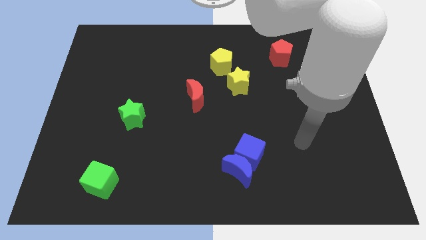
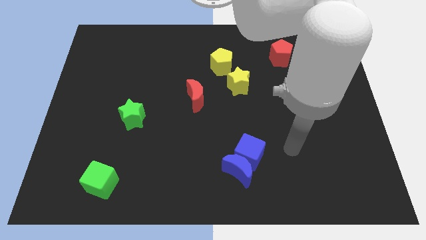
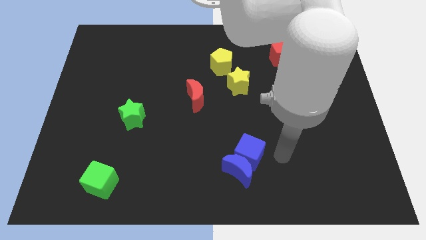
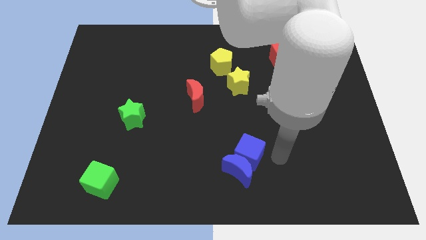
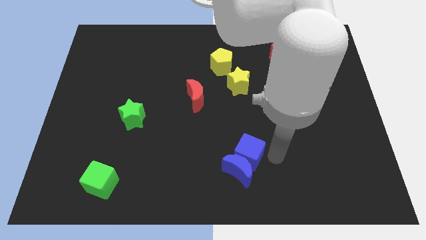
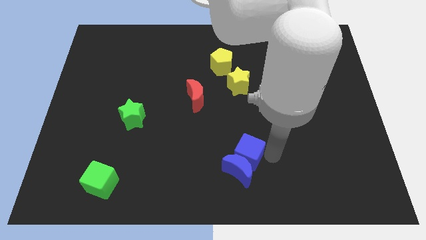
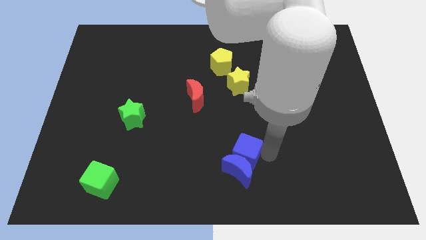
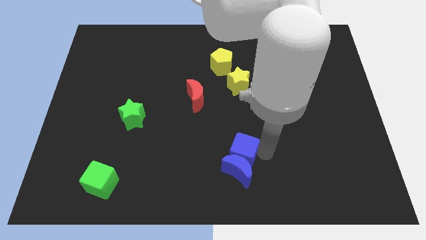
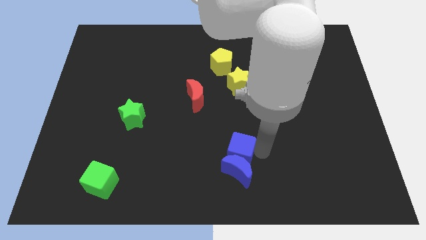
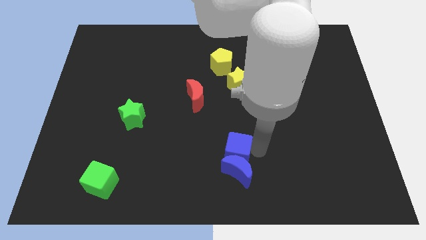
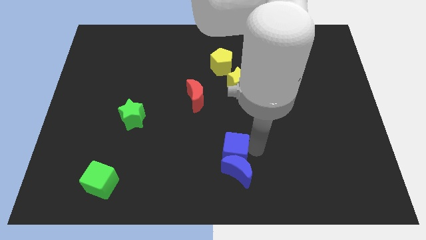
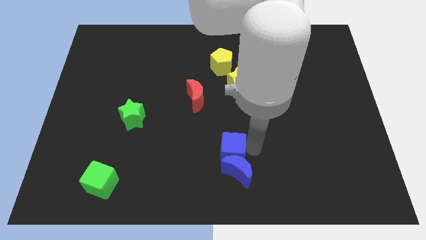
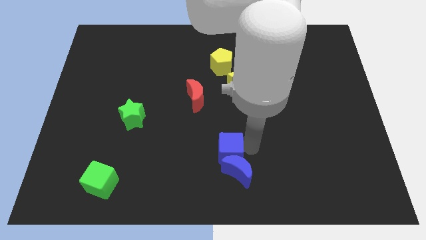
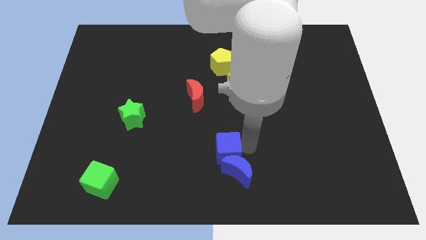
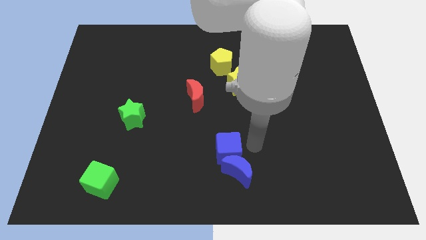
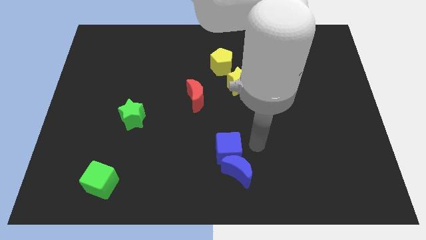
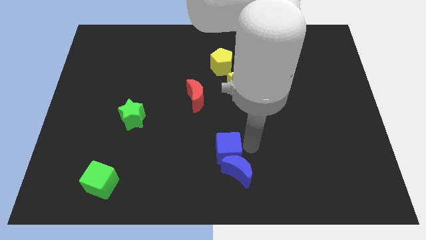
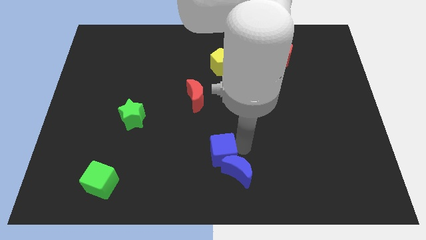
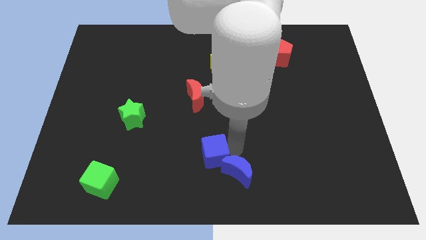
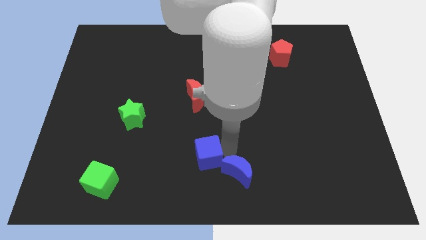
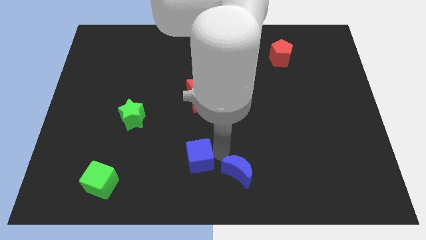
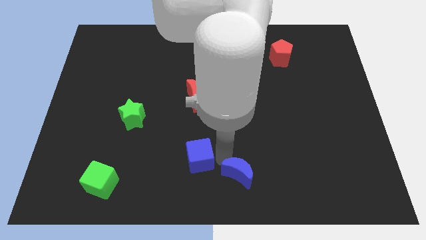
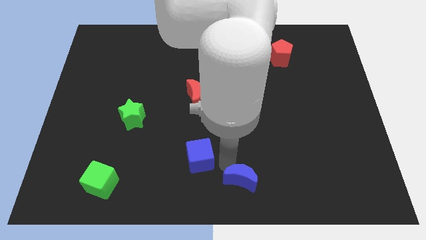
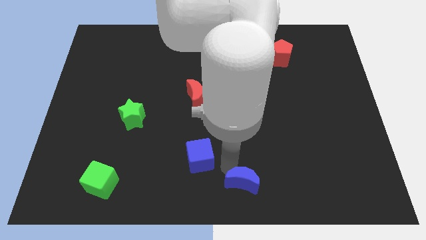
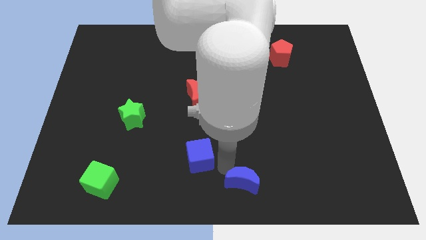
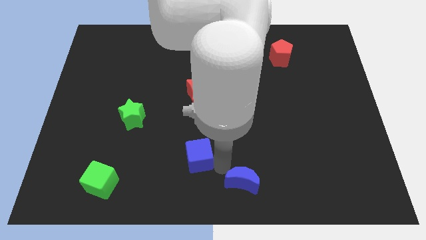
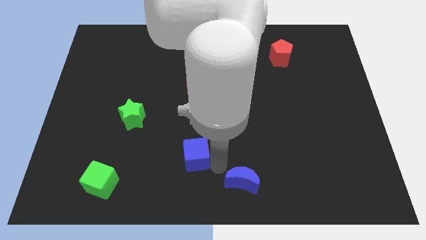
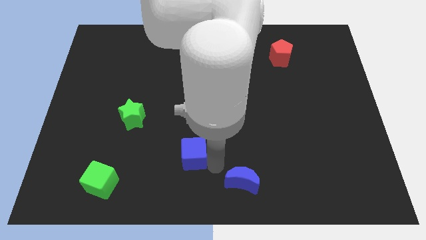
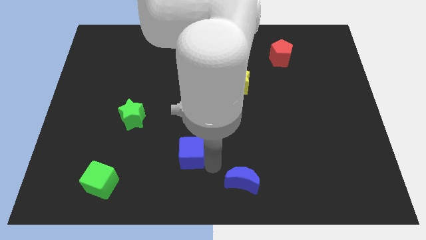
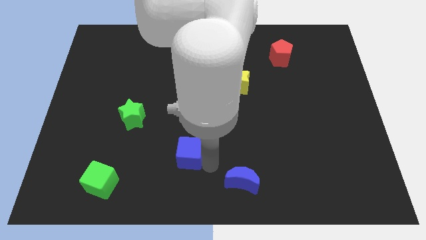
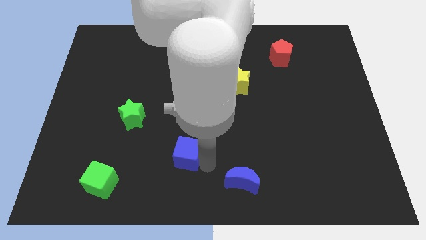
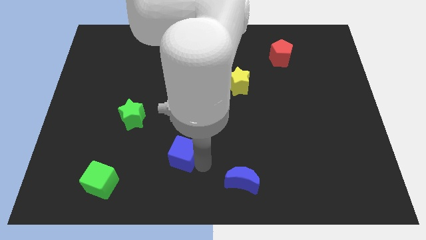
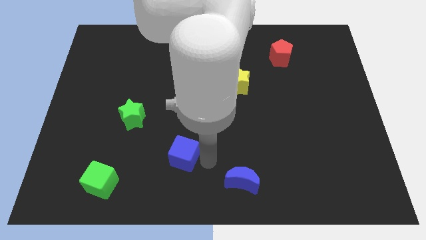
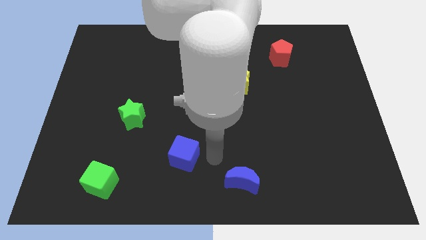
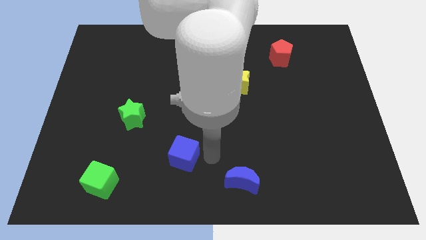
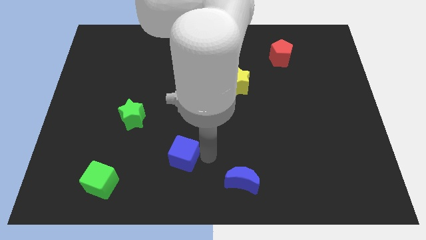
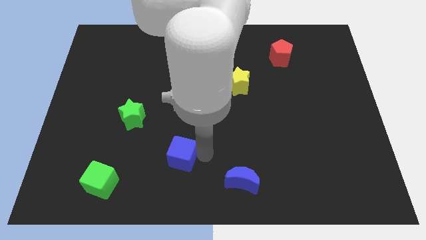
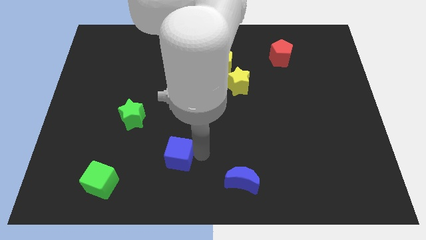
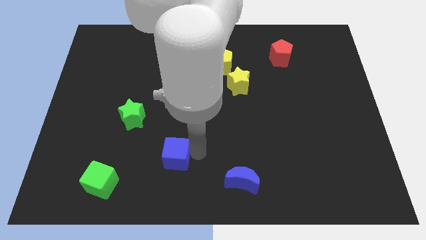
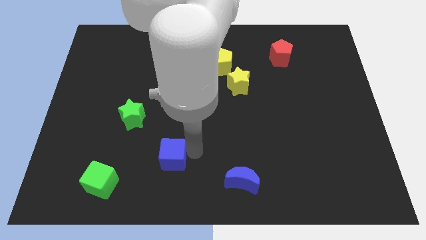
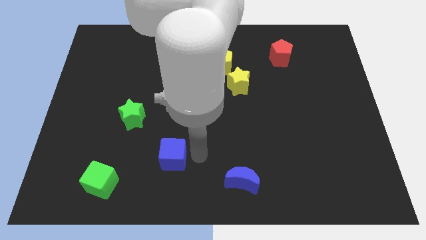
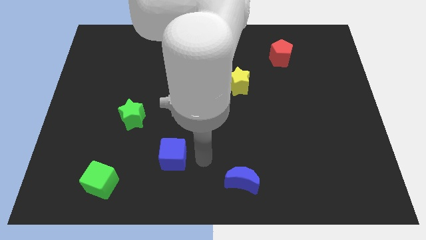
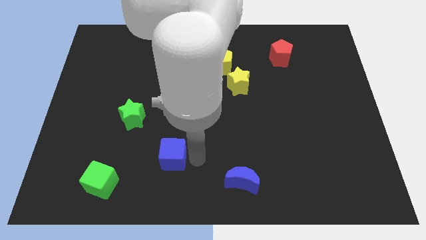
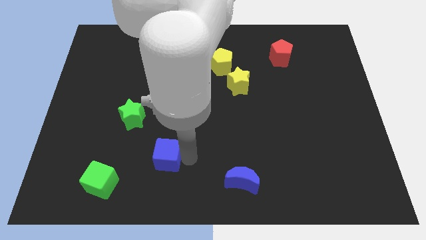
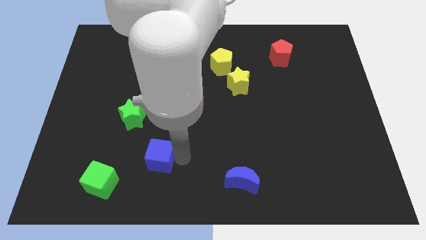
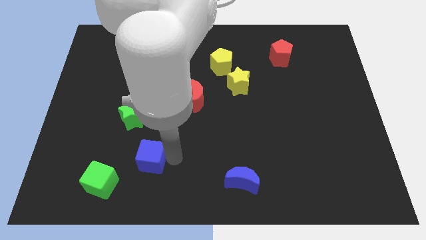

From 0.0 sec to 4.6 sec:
slide the blue cube to the left

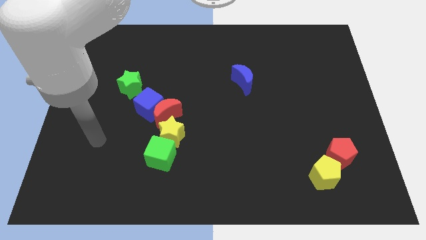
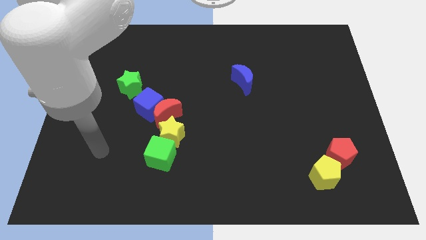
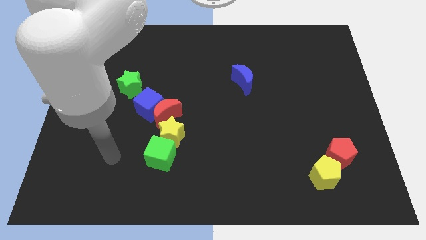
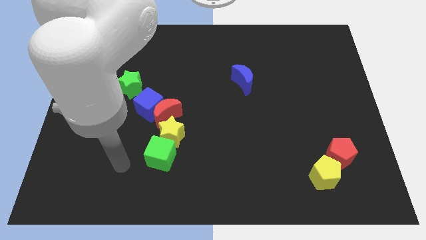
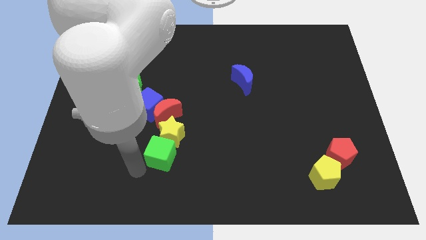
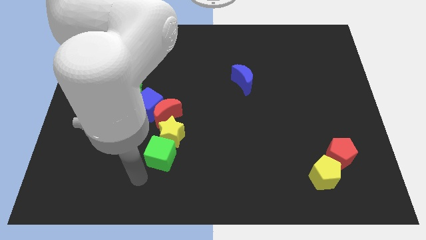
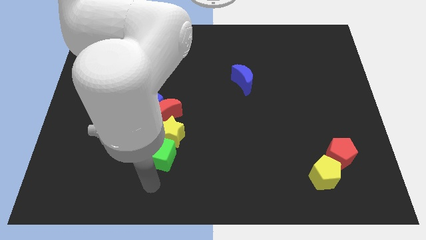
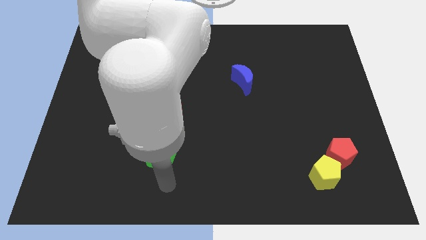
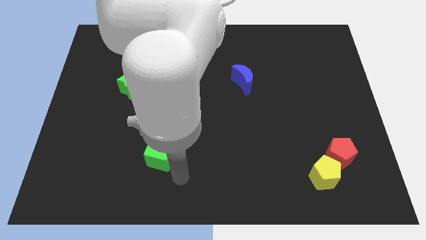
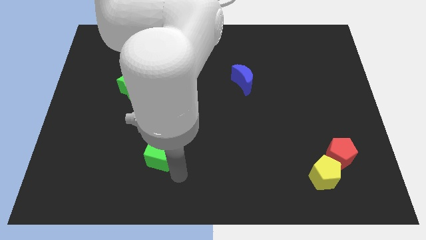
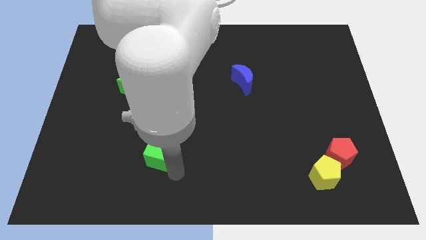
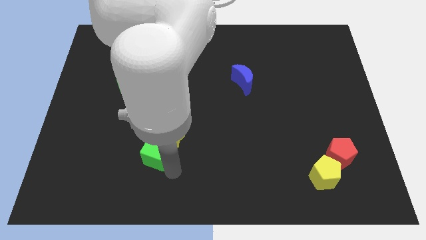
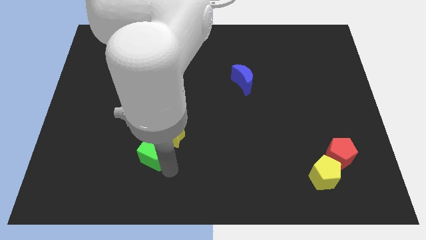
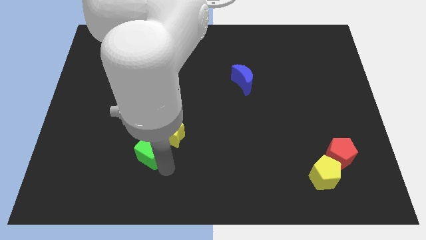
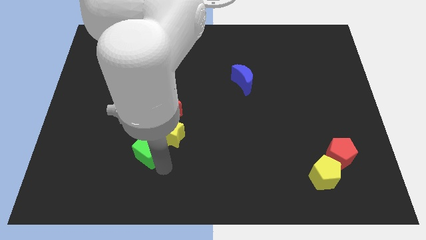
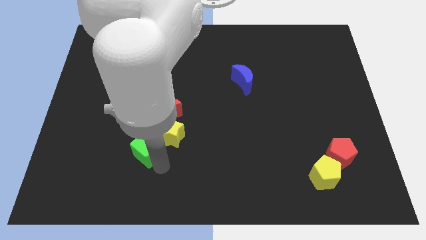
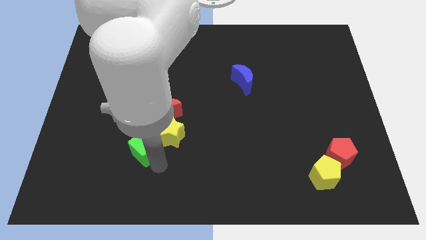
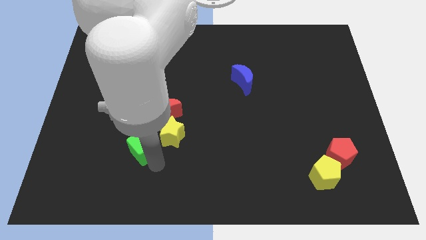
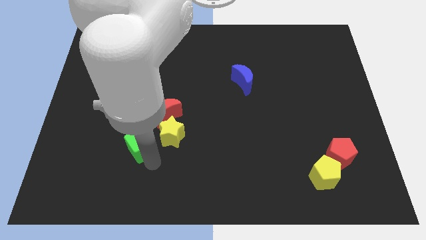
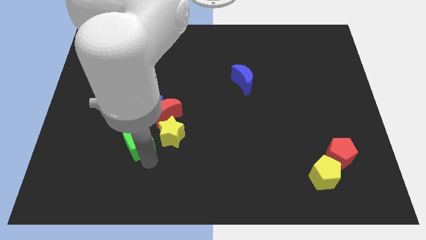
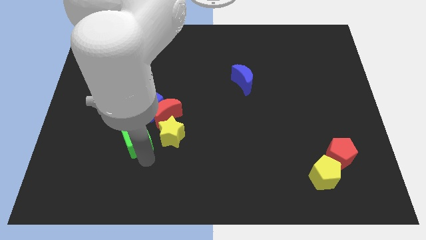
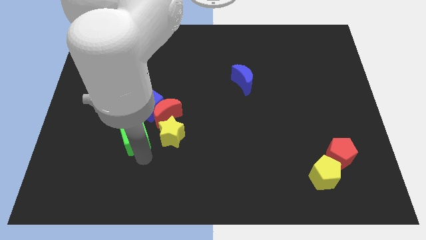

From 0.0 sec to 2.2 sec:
slightly slide the green cube diagonally upwards and left

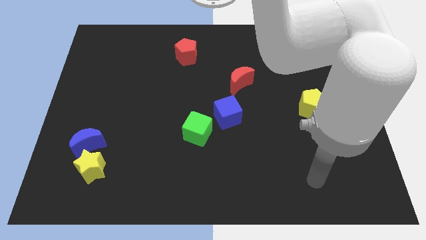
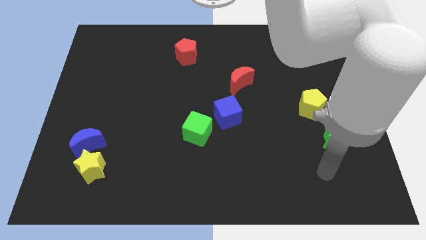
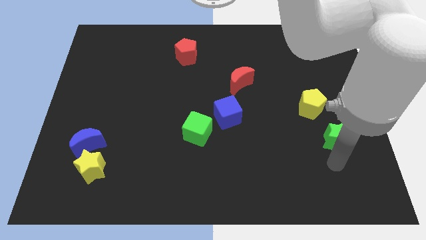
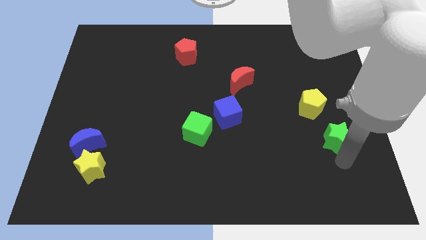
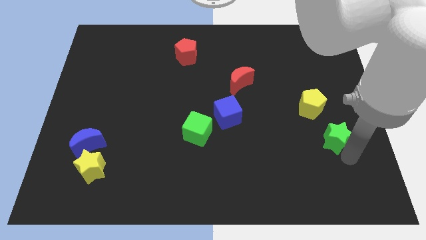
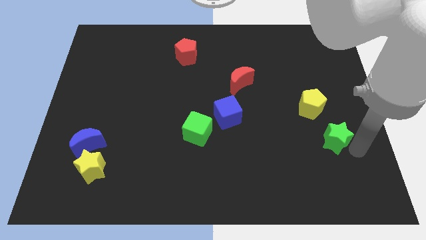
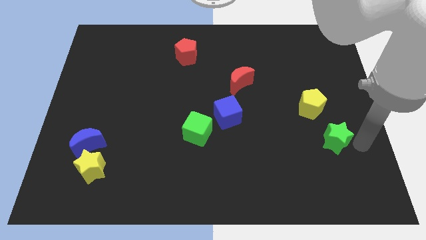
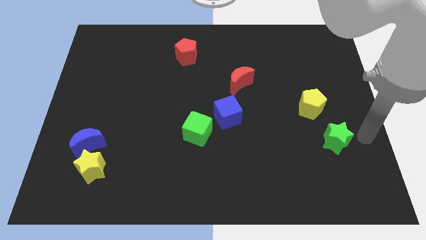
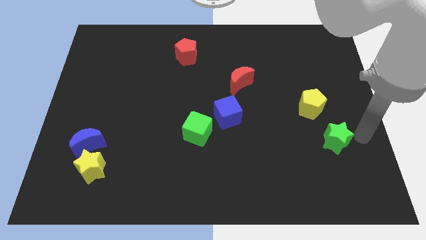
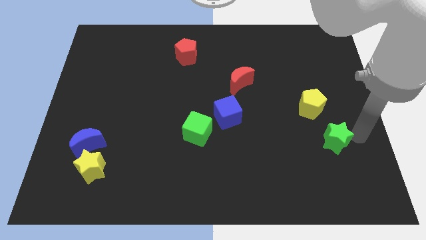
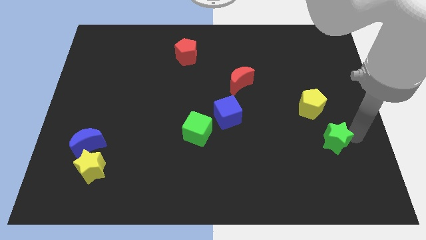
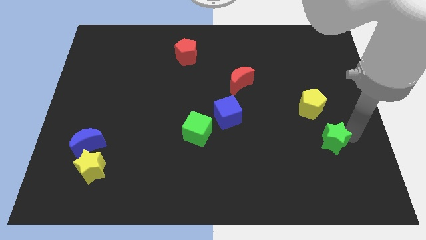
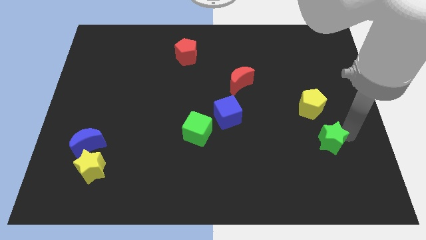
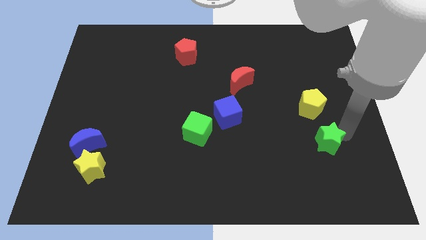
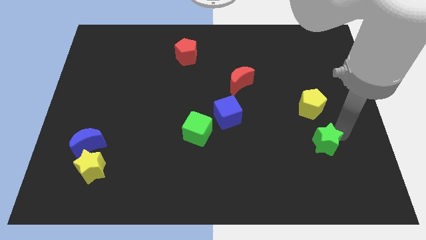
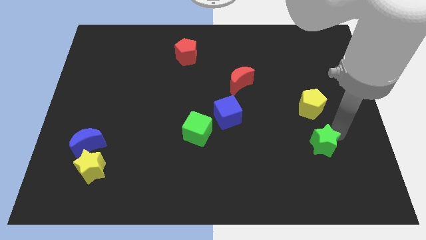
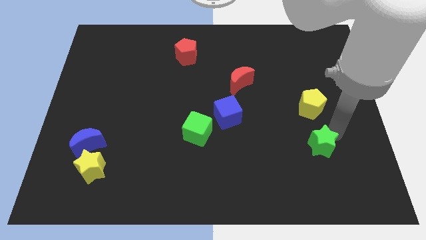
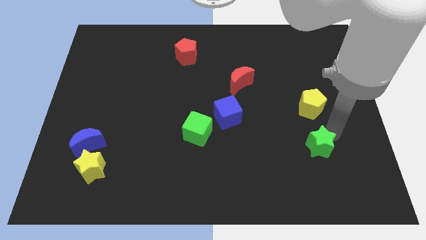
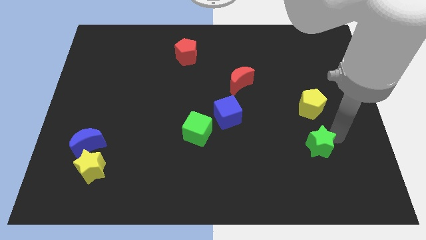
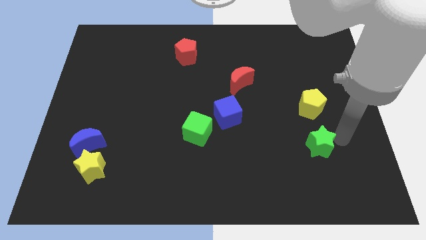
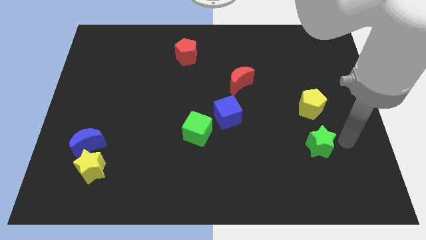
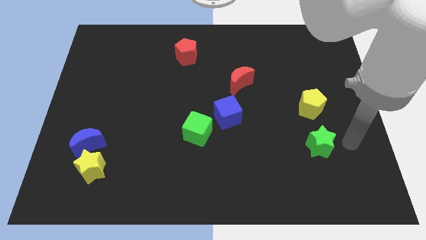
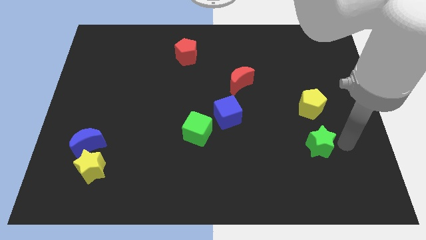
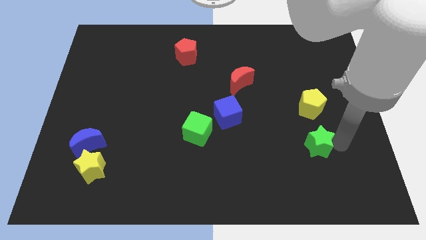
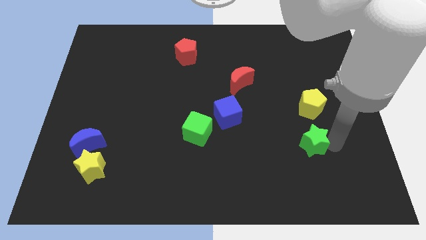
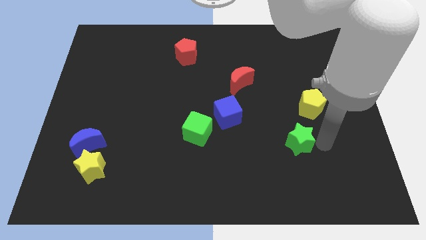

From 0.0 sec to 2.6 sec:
slide the green star left a little
